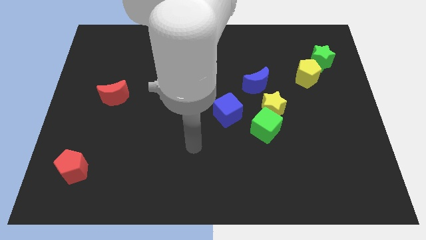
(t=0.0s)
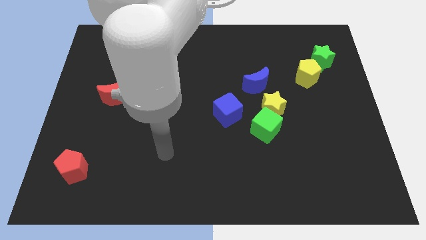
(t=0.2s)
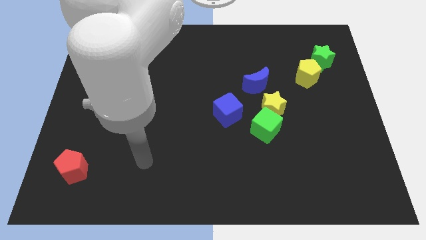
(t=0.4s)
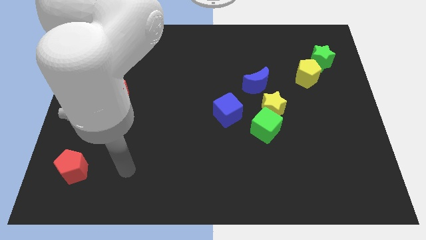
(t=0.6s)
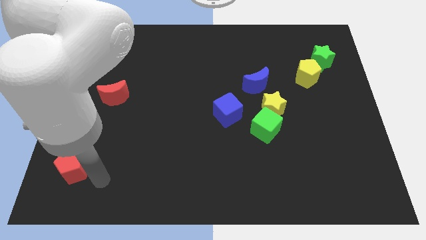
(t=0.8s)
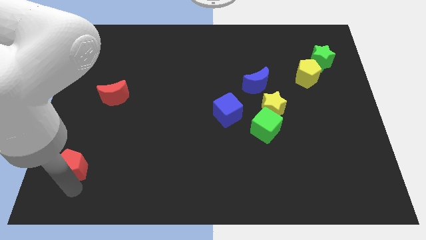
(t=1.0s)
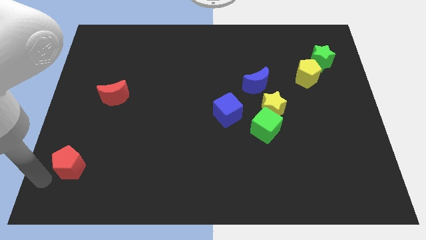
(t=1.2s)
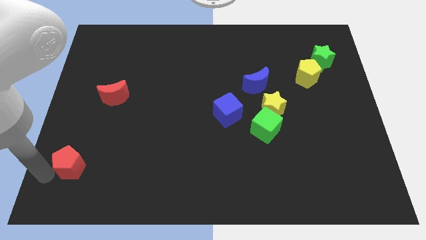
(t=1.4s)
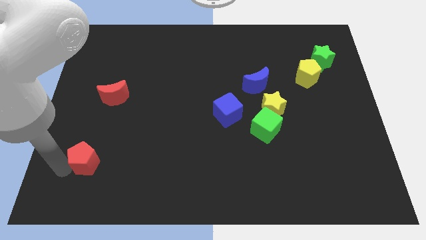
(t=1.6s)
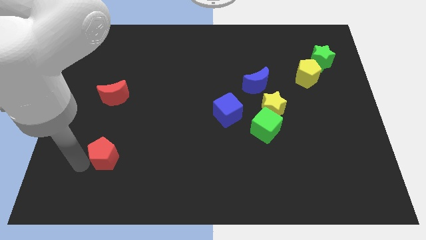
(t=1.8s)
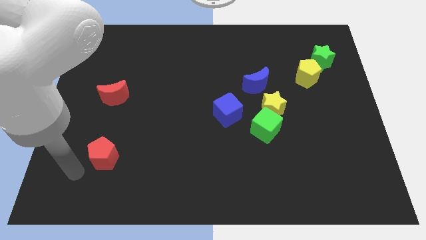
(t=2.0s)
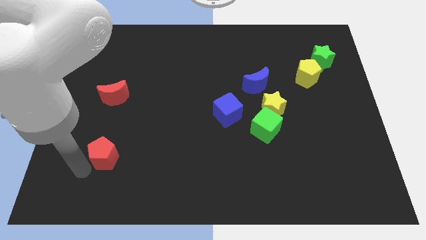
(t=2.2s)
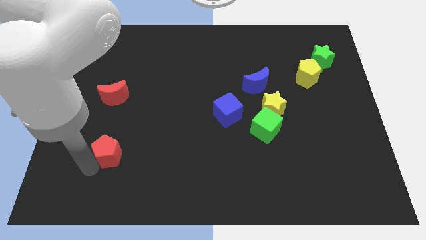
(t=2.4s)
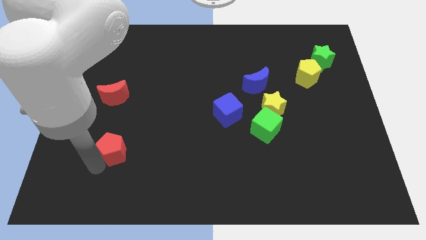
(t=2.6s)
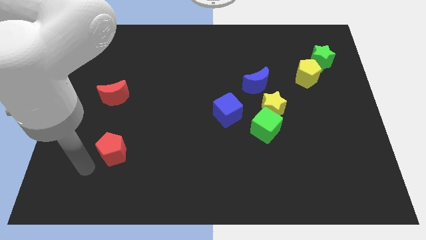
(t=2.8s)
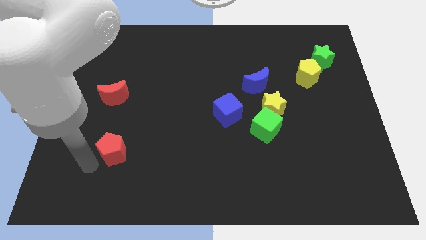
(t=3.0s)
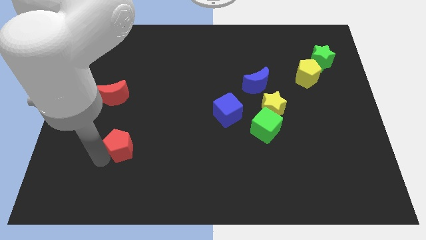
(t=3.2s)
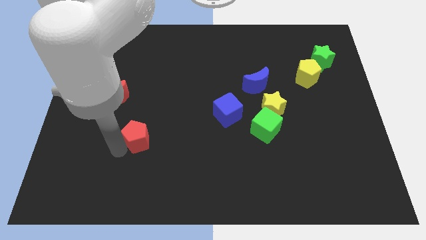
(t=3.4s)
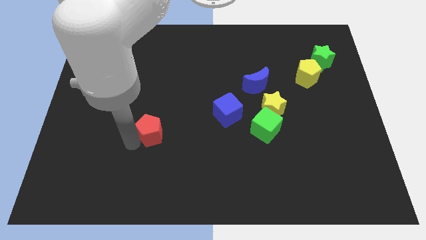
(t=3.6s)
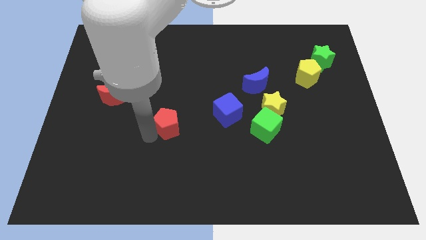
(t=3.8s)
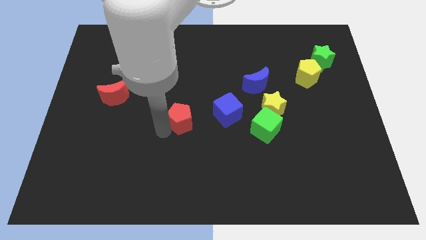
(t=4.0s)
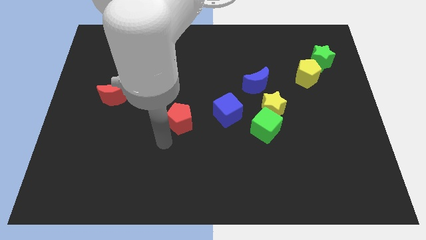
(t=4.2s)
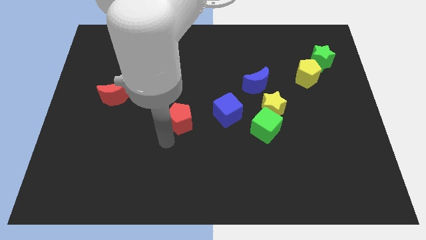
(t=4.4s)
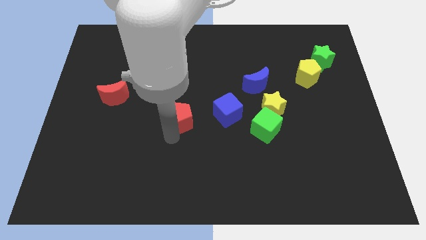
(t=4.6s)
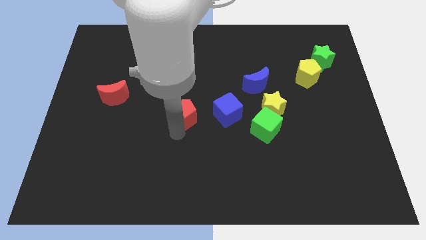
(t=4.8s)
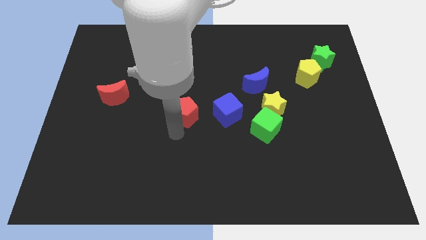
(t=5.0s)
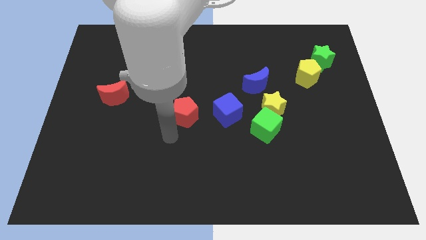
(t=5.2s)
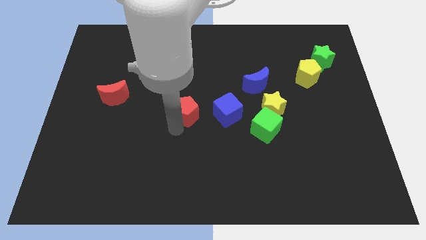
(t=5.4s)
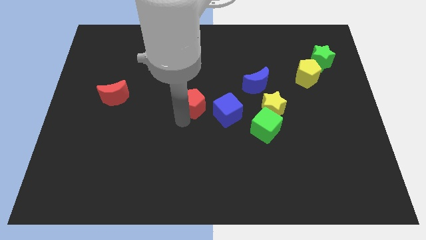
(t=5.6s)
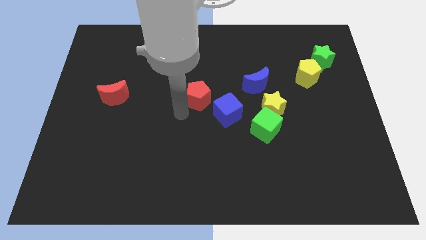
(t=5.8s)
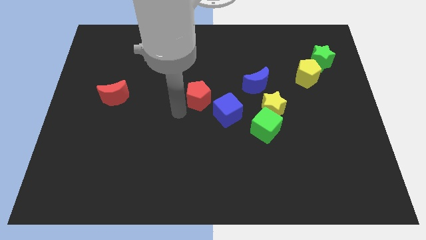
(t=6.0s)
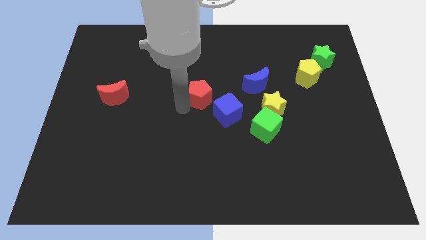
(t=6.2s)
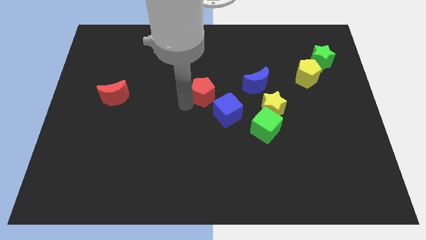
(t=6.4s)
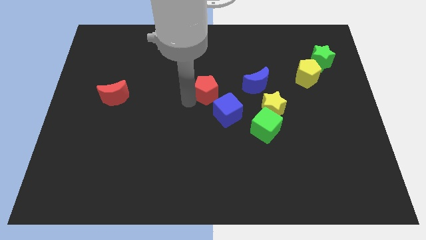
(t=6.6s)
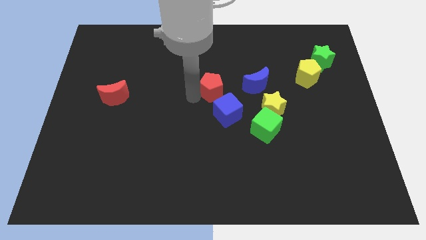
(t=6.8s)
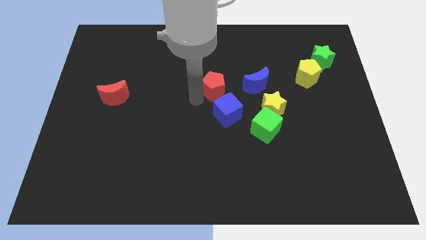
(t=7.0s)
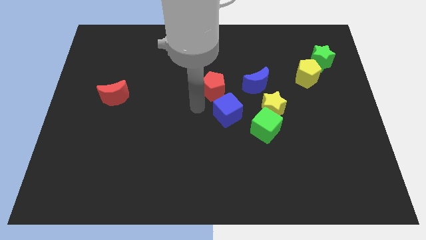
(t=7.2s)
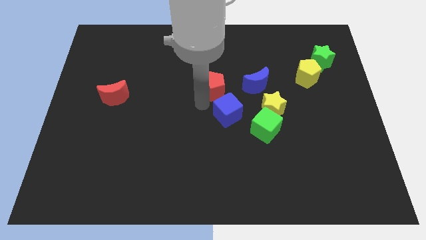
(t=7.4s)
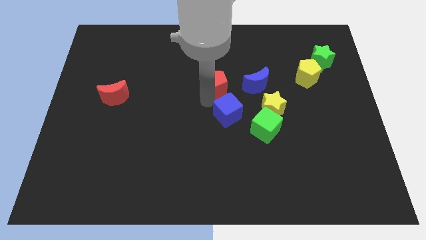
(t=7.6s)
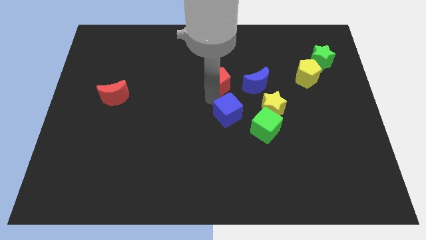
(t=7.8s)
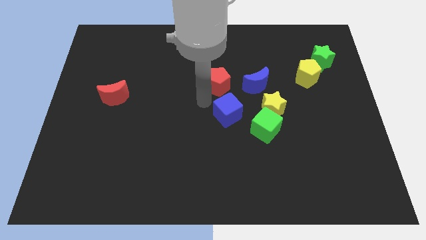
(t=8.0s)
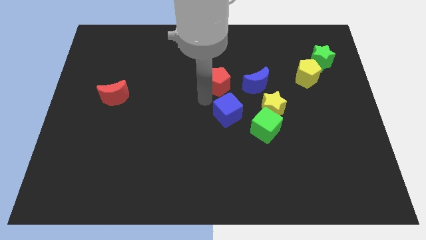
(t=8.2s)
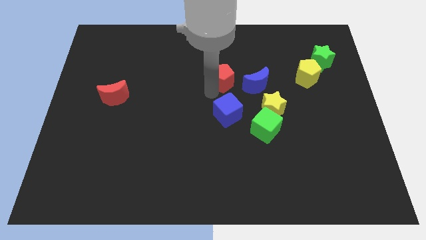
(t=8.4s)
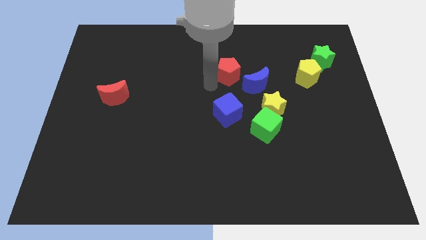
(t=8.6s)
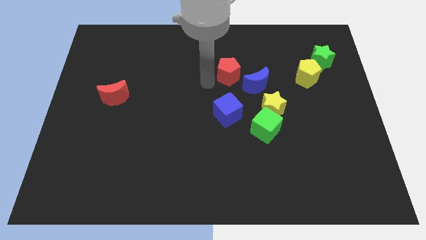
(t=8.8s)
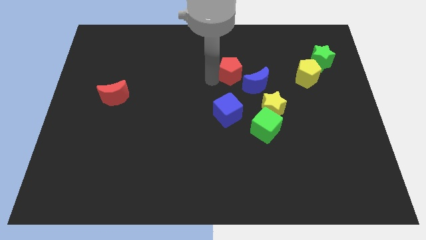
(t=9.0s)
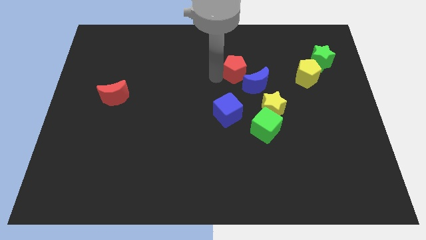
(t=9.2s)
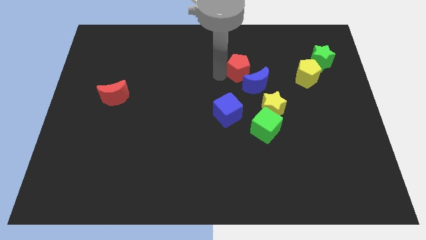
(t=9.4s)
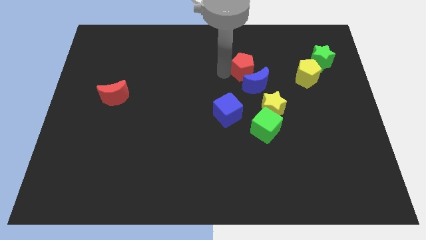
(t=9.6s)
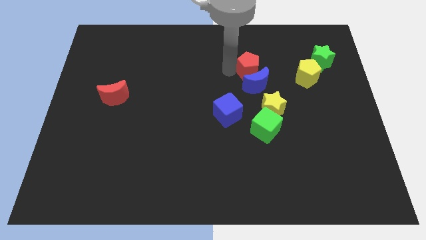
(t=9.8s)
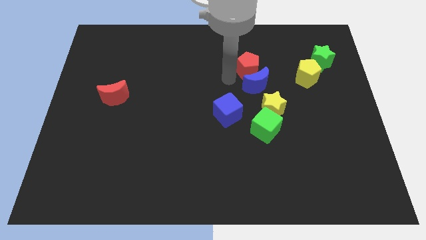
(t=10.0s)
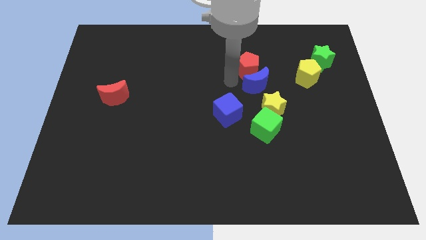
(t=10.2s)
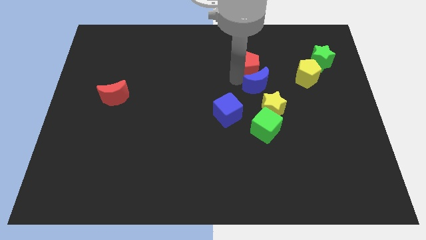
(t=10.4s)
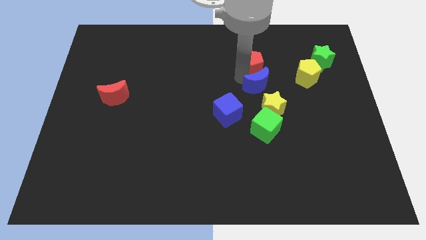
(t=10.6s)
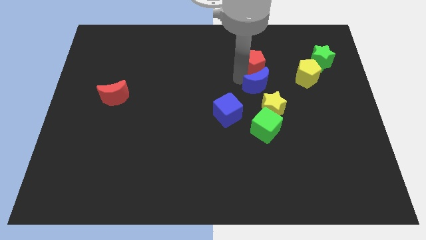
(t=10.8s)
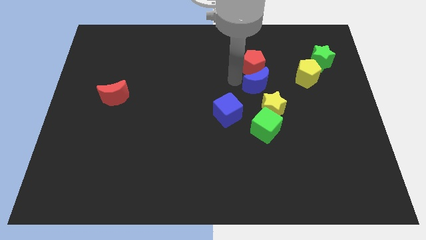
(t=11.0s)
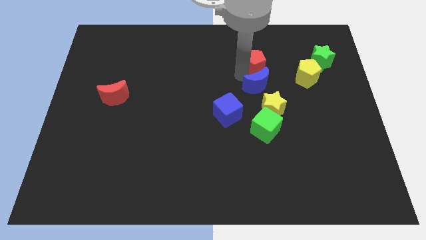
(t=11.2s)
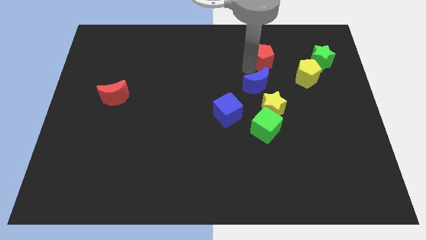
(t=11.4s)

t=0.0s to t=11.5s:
put the red pentagon to the left of the green star

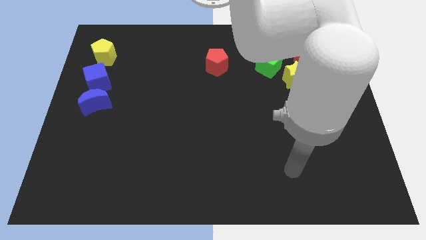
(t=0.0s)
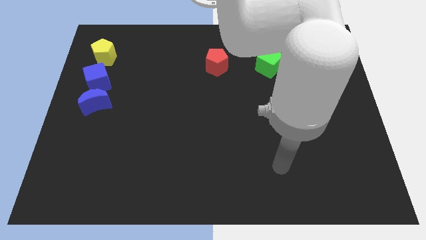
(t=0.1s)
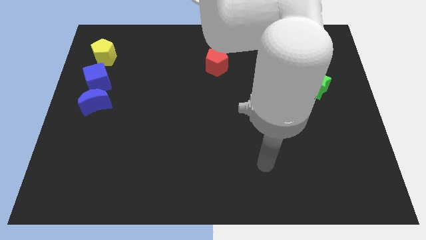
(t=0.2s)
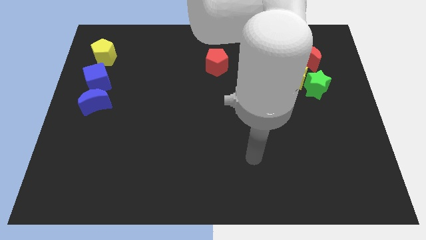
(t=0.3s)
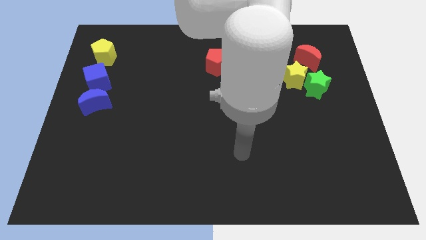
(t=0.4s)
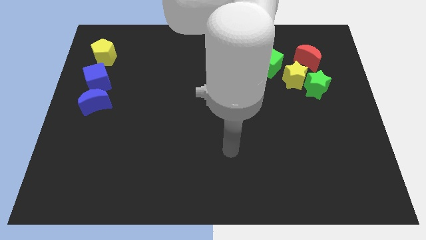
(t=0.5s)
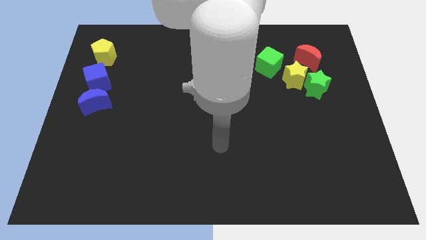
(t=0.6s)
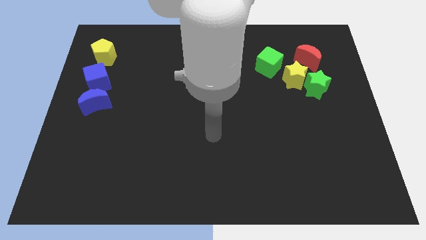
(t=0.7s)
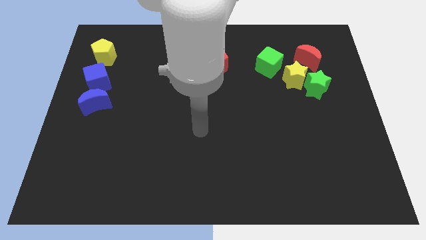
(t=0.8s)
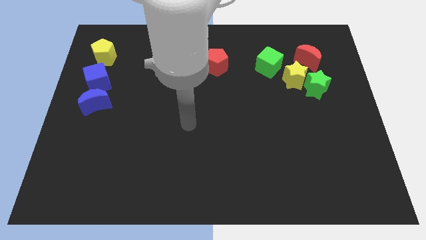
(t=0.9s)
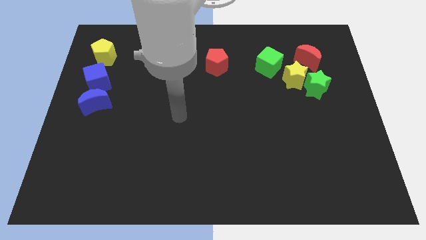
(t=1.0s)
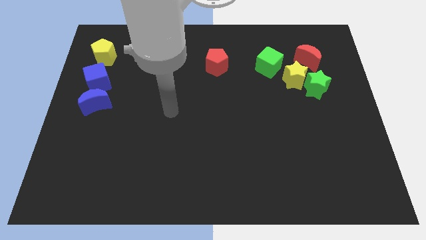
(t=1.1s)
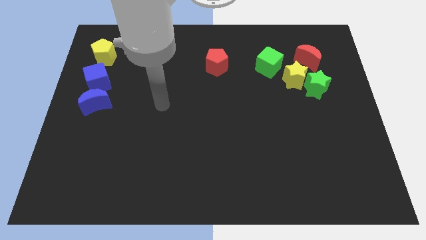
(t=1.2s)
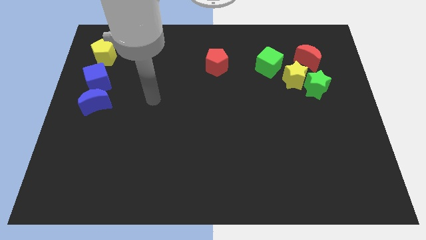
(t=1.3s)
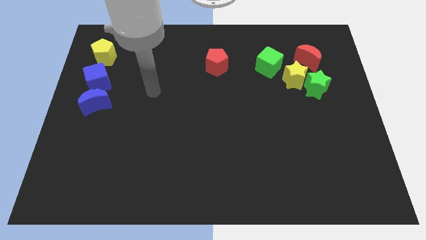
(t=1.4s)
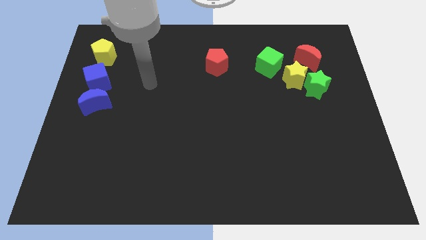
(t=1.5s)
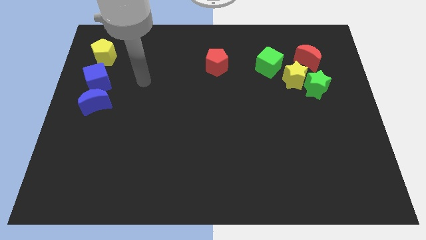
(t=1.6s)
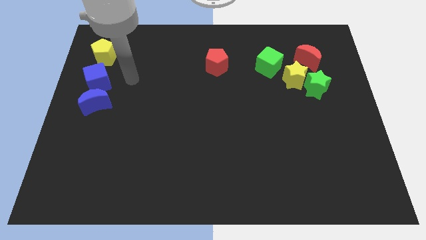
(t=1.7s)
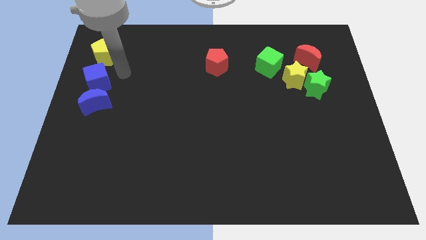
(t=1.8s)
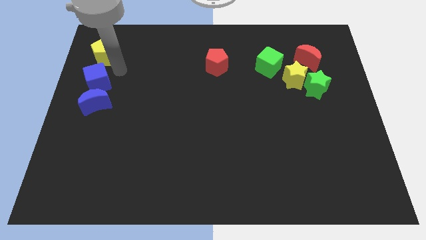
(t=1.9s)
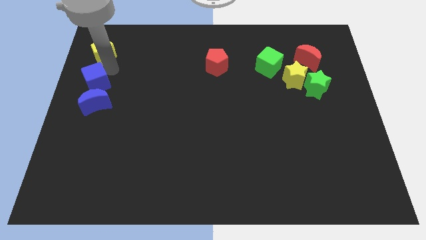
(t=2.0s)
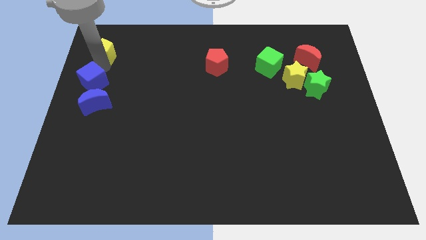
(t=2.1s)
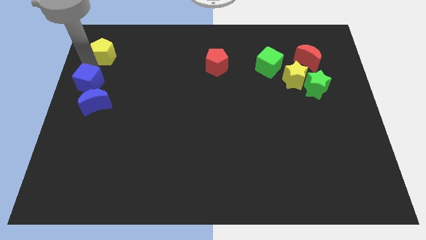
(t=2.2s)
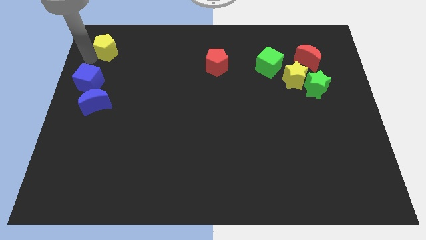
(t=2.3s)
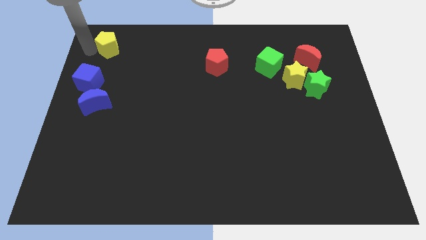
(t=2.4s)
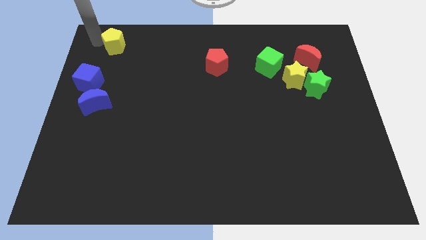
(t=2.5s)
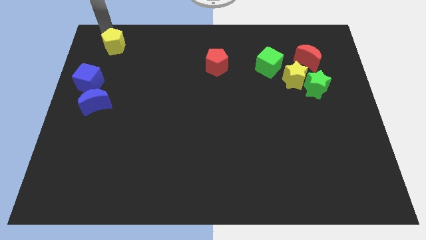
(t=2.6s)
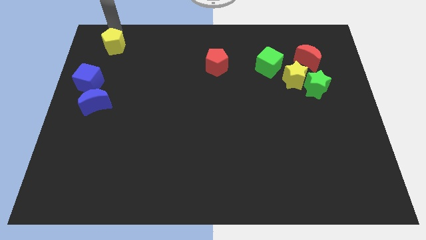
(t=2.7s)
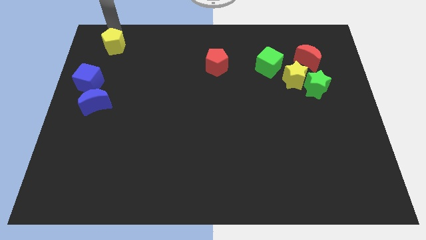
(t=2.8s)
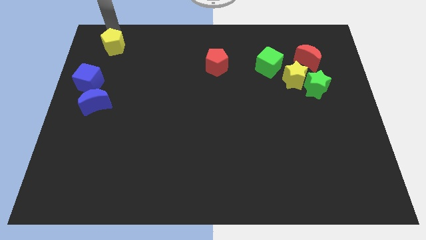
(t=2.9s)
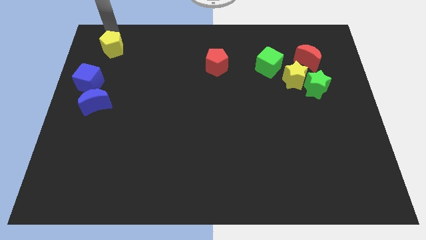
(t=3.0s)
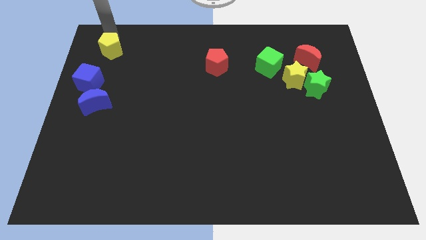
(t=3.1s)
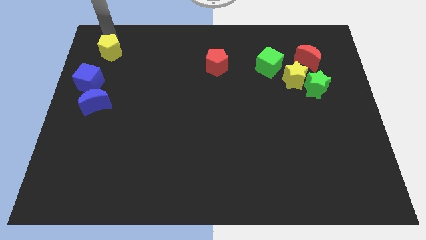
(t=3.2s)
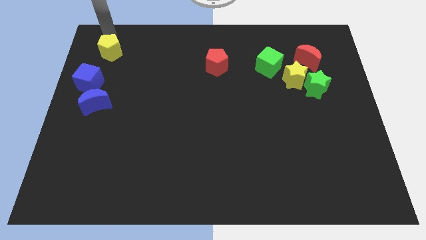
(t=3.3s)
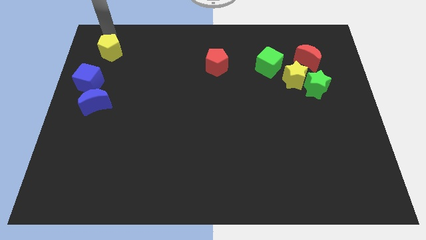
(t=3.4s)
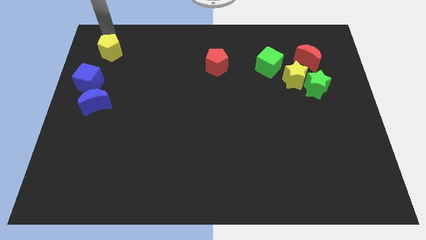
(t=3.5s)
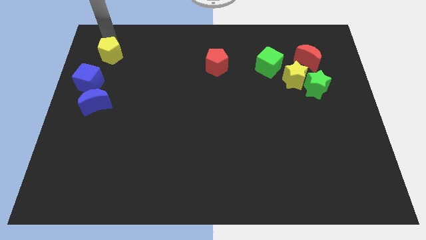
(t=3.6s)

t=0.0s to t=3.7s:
put the yellow pentagon to the top right side of the blue cube
